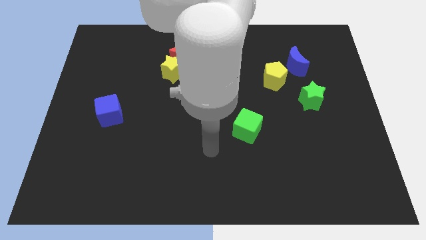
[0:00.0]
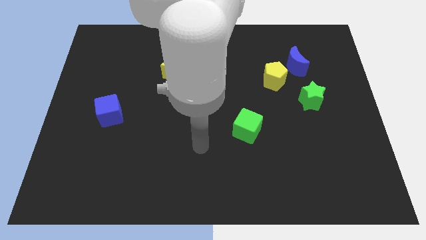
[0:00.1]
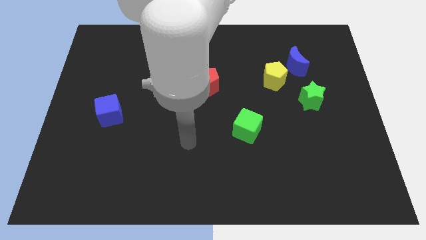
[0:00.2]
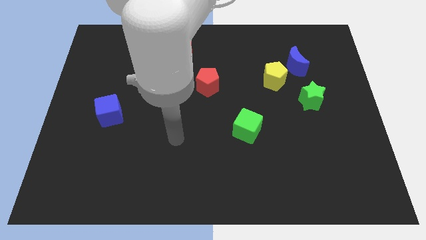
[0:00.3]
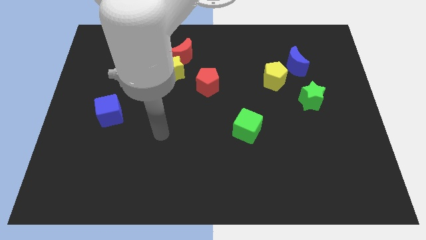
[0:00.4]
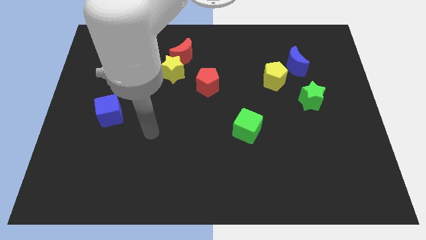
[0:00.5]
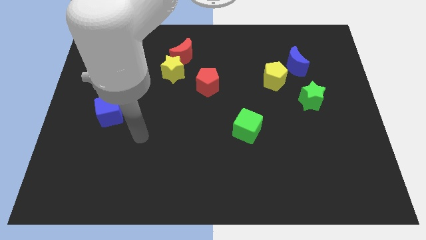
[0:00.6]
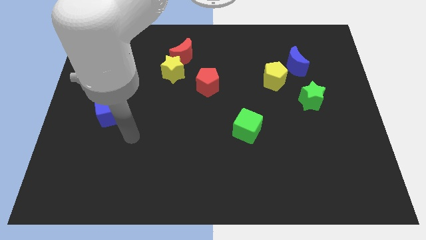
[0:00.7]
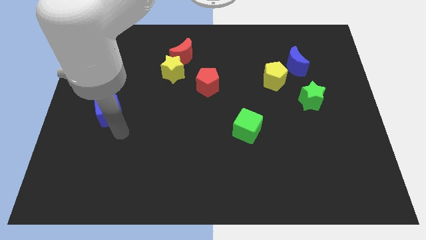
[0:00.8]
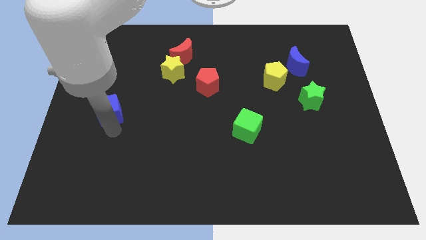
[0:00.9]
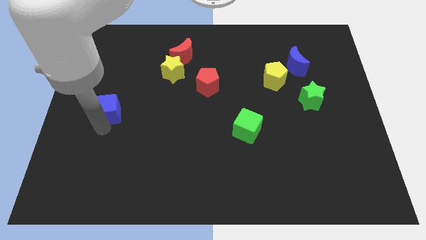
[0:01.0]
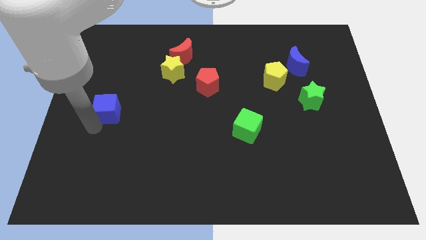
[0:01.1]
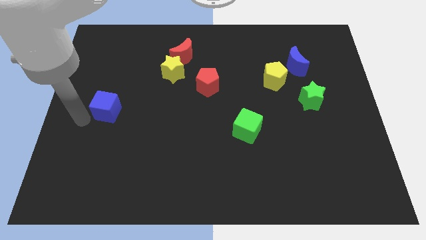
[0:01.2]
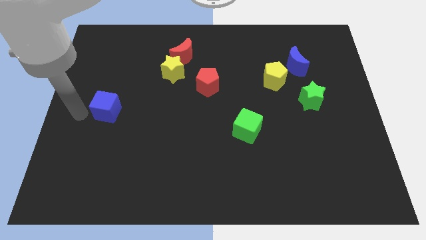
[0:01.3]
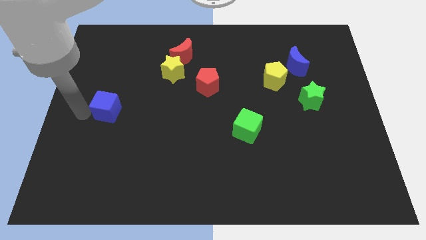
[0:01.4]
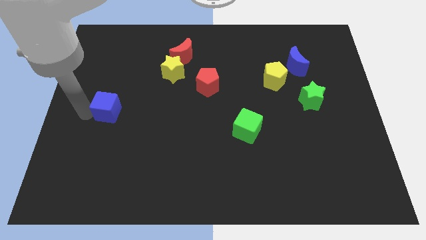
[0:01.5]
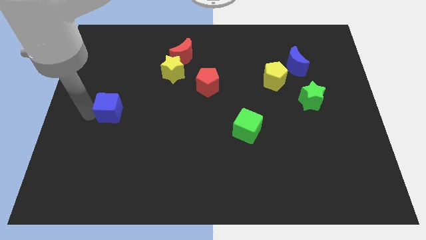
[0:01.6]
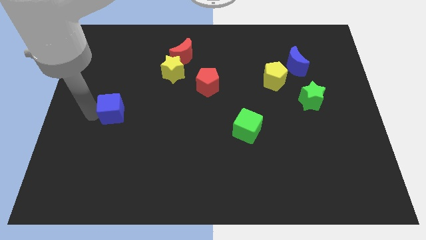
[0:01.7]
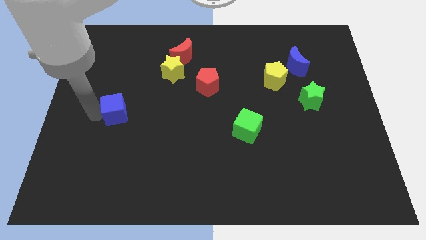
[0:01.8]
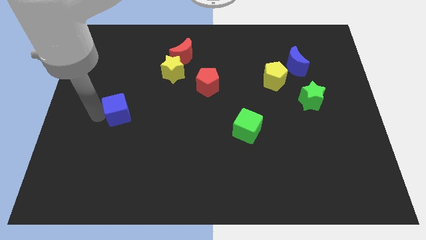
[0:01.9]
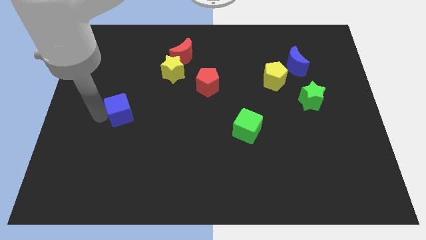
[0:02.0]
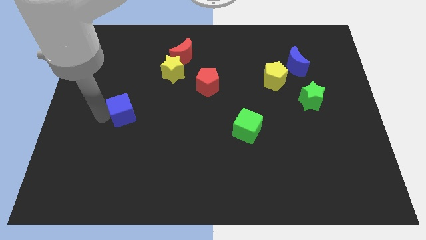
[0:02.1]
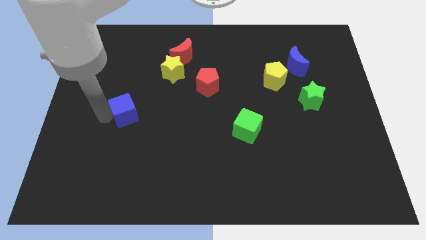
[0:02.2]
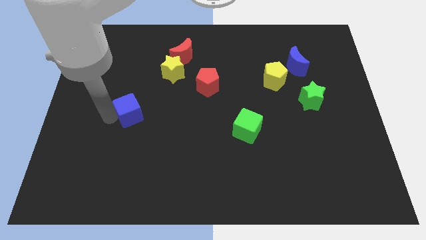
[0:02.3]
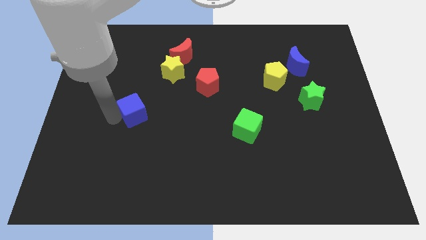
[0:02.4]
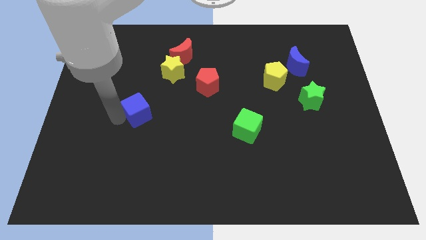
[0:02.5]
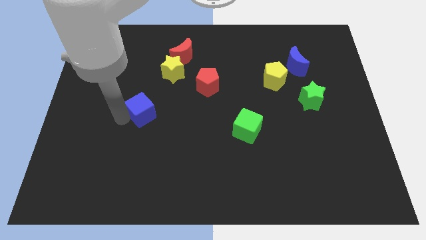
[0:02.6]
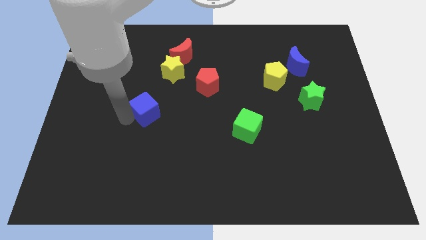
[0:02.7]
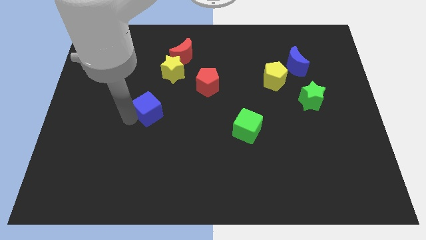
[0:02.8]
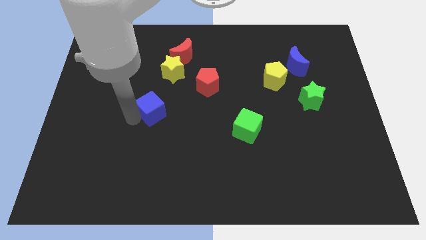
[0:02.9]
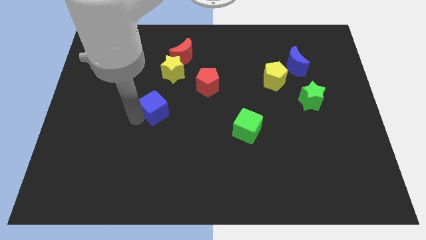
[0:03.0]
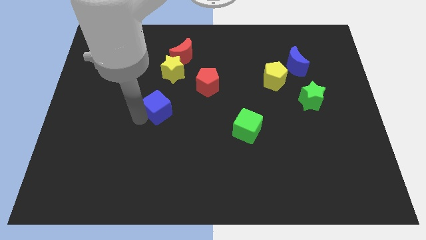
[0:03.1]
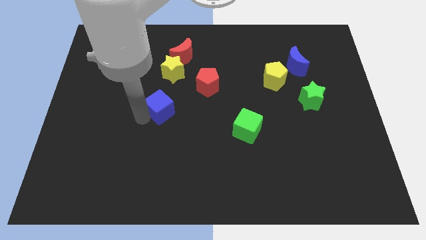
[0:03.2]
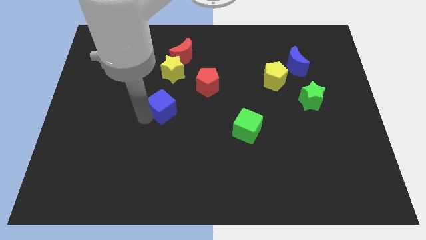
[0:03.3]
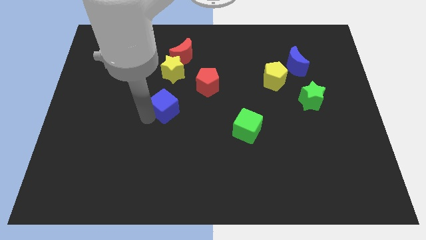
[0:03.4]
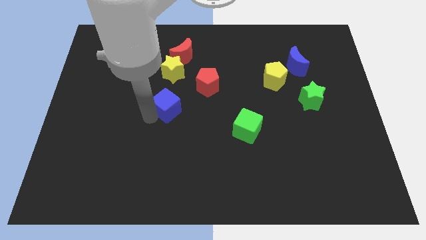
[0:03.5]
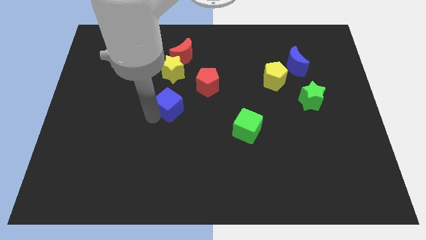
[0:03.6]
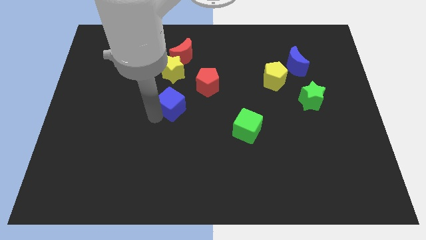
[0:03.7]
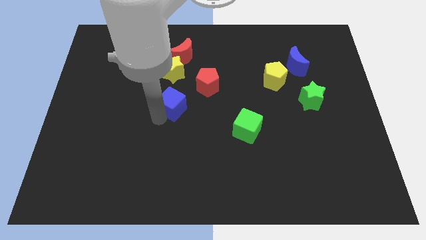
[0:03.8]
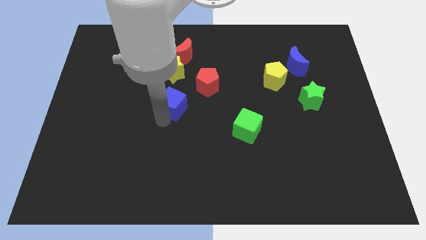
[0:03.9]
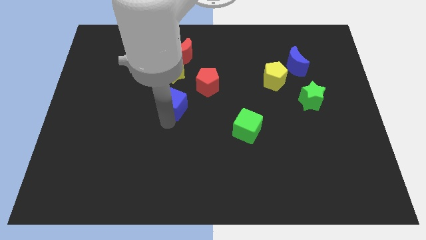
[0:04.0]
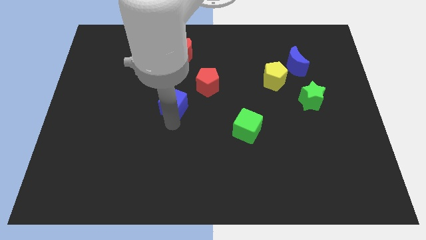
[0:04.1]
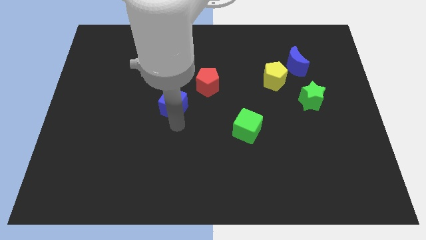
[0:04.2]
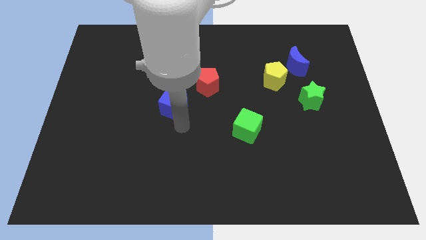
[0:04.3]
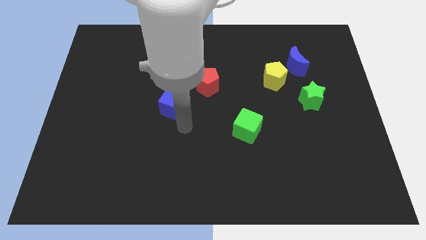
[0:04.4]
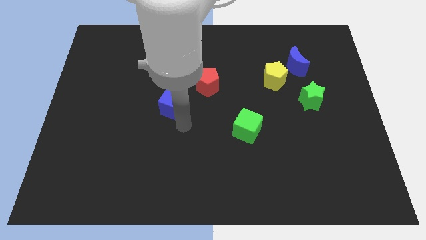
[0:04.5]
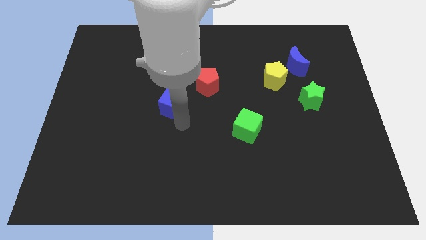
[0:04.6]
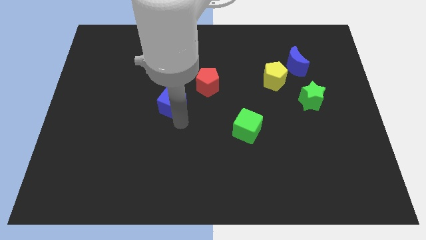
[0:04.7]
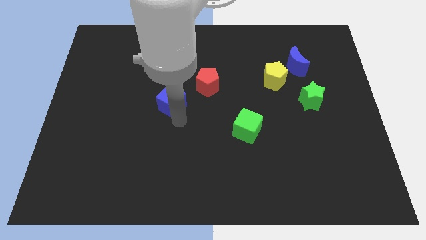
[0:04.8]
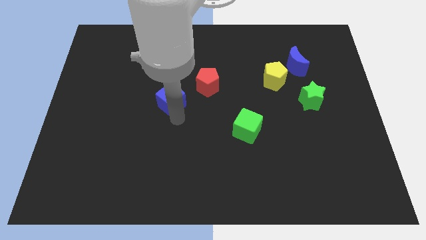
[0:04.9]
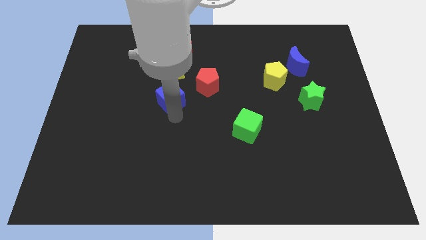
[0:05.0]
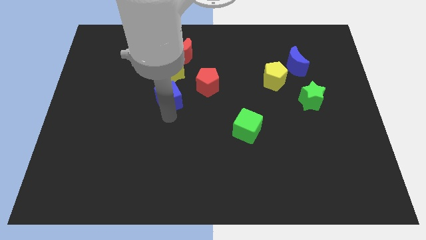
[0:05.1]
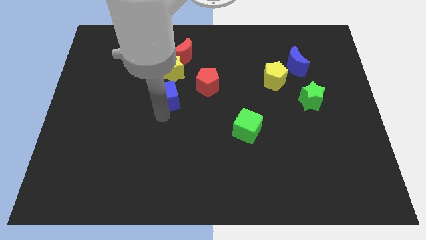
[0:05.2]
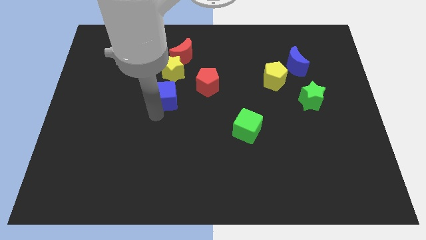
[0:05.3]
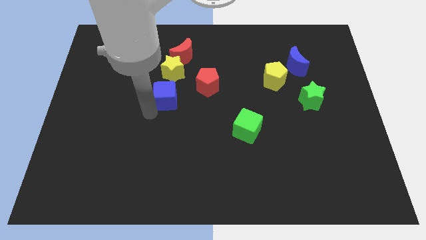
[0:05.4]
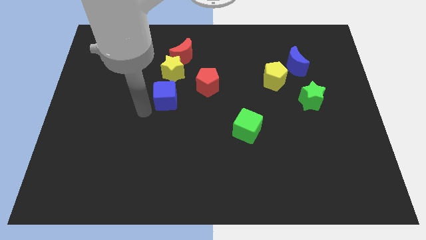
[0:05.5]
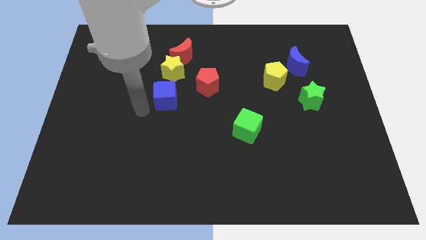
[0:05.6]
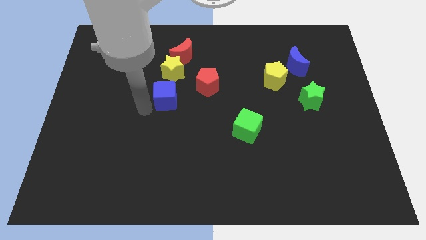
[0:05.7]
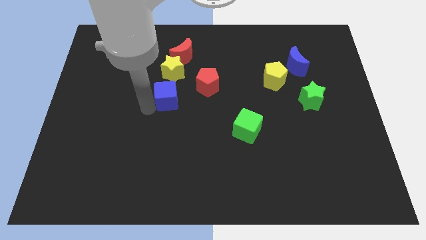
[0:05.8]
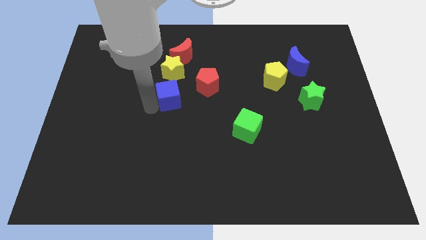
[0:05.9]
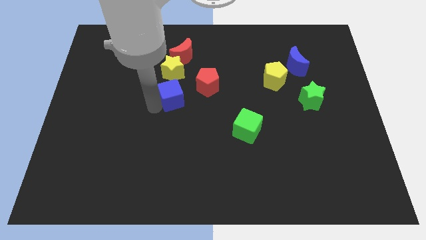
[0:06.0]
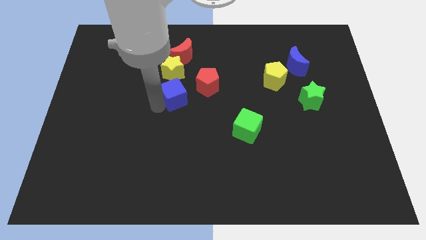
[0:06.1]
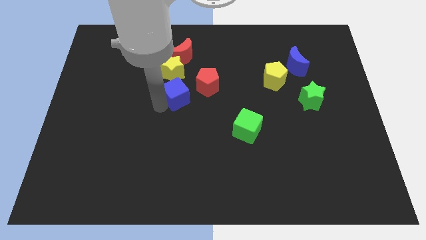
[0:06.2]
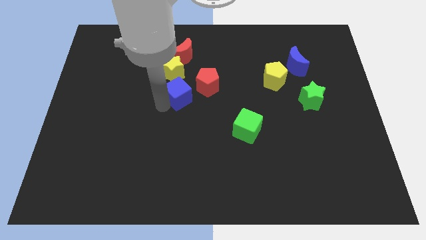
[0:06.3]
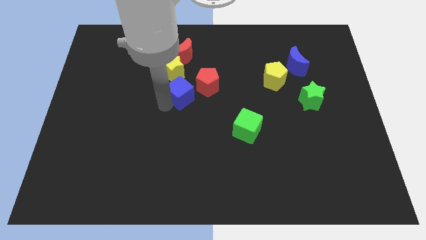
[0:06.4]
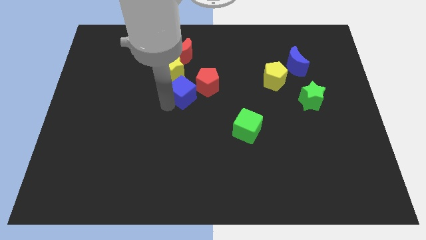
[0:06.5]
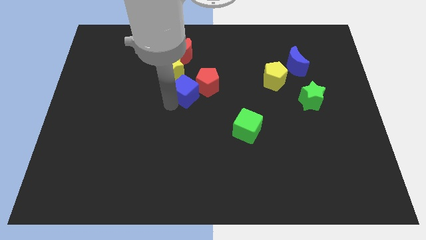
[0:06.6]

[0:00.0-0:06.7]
push the blue cube towards the red pentagon

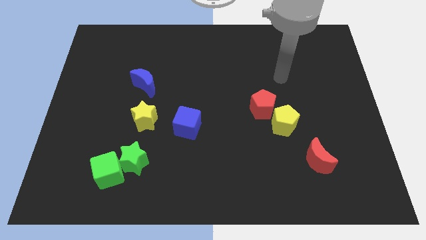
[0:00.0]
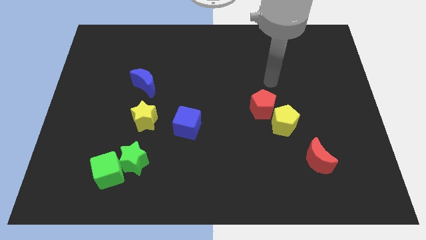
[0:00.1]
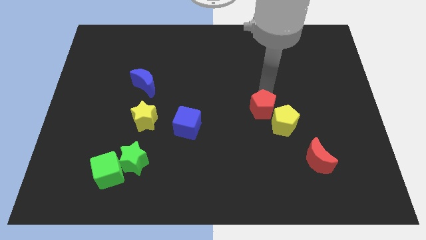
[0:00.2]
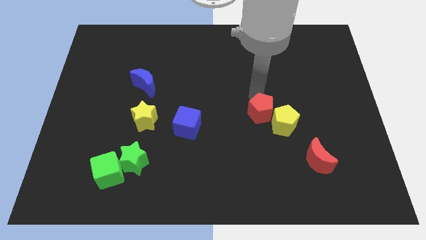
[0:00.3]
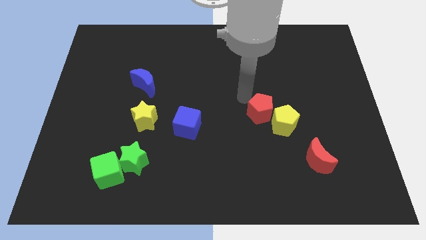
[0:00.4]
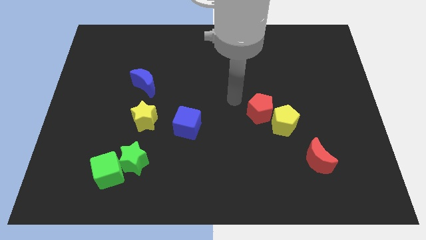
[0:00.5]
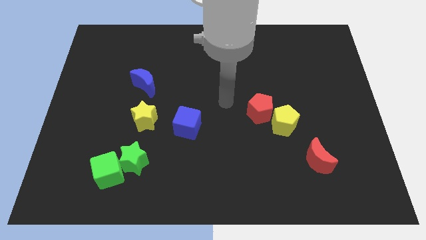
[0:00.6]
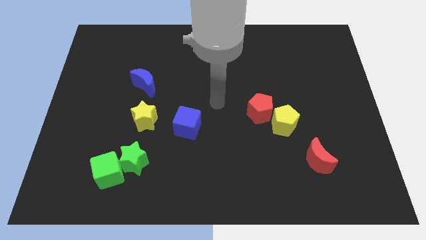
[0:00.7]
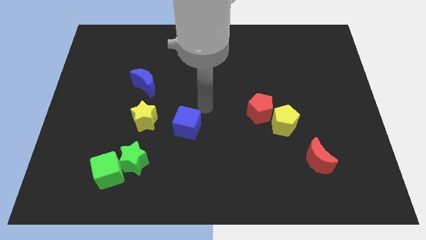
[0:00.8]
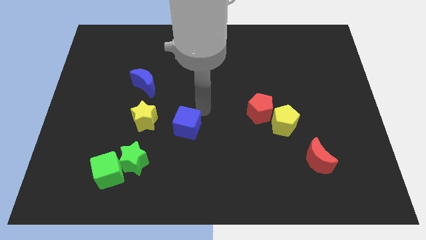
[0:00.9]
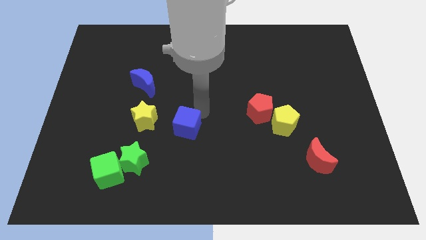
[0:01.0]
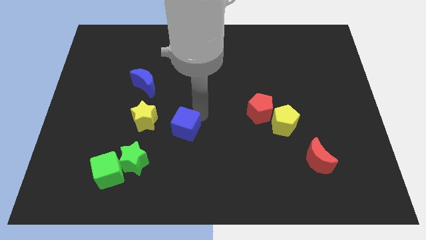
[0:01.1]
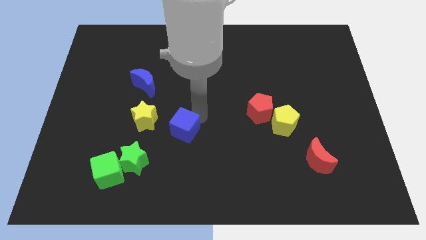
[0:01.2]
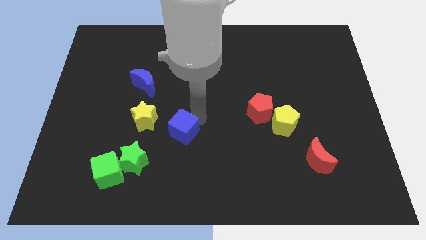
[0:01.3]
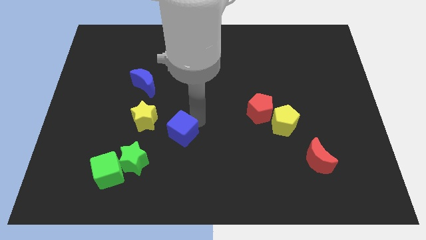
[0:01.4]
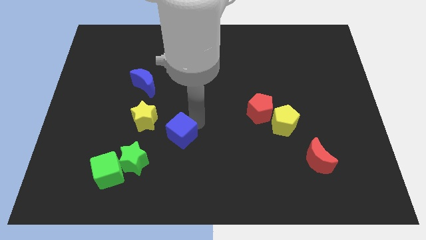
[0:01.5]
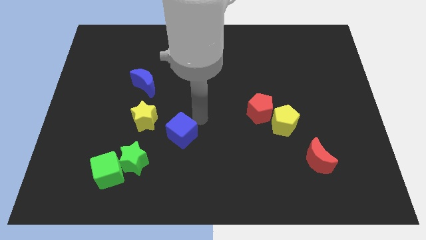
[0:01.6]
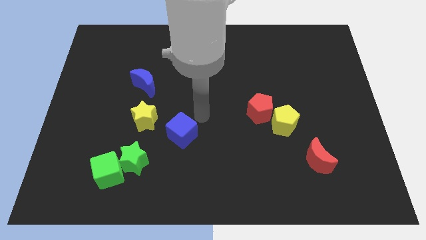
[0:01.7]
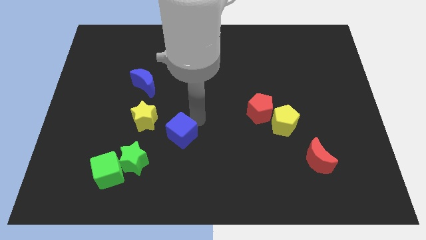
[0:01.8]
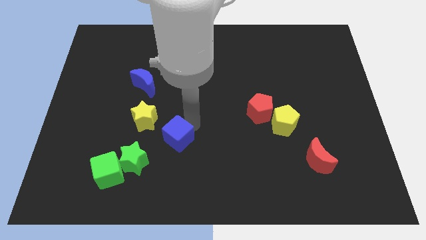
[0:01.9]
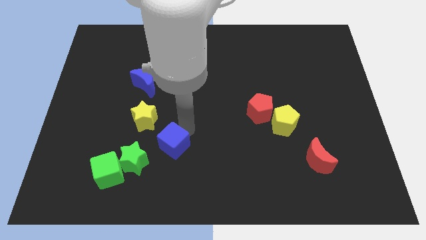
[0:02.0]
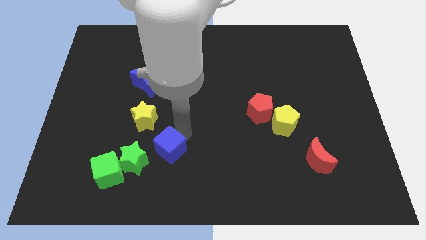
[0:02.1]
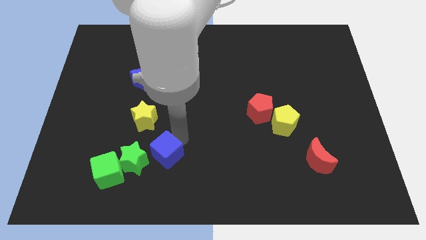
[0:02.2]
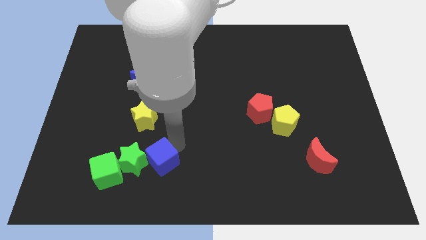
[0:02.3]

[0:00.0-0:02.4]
push the blue cube next to the green star
